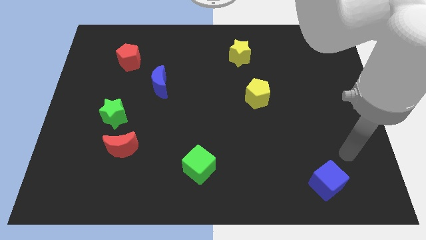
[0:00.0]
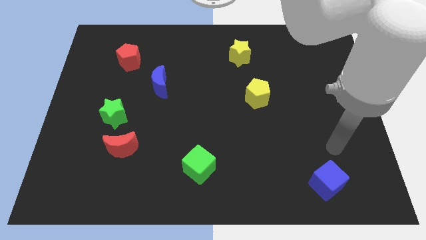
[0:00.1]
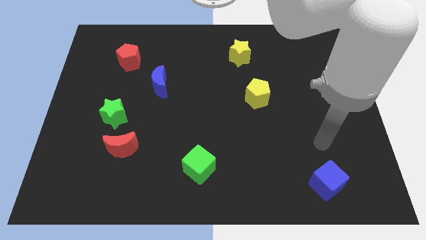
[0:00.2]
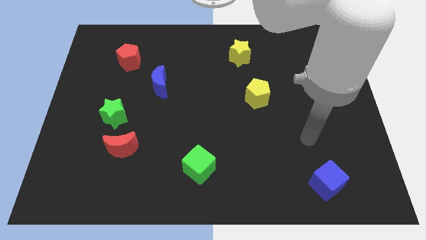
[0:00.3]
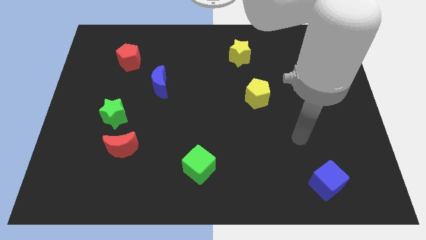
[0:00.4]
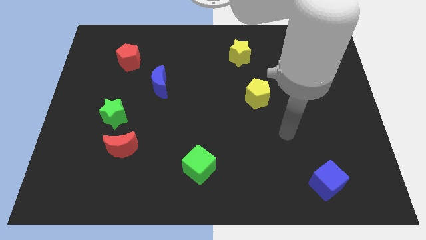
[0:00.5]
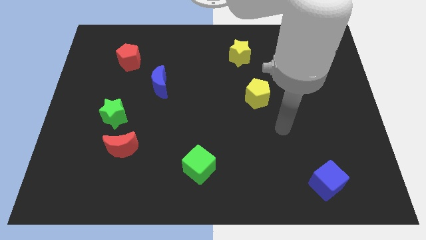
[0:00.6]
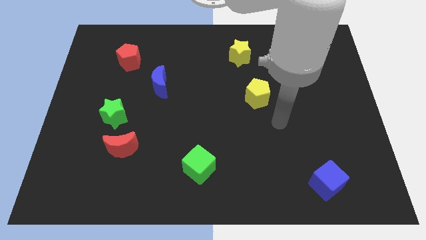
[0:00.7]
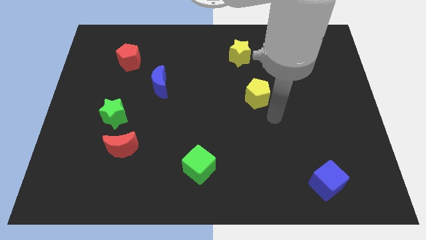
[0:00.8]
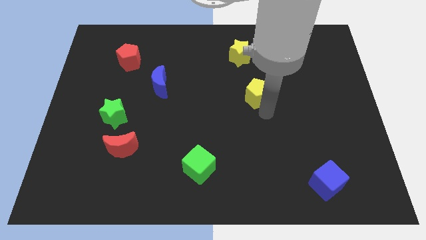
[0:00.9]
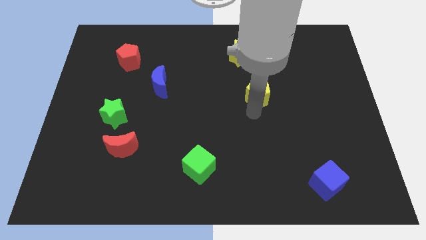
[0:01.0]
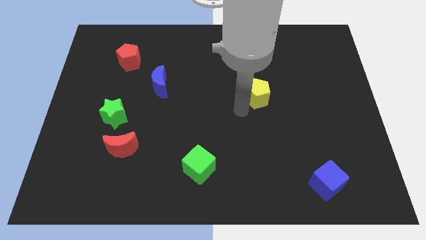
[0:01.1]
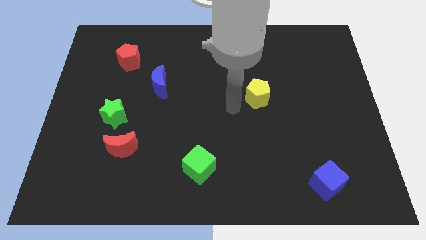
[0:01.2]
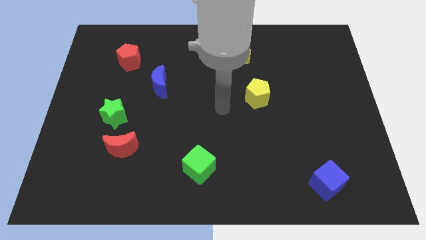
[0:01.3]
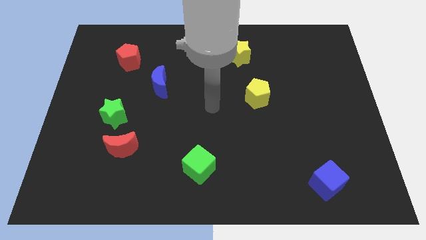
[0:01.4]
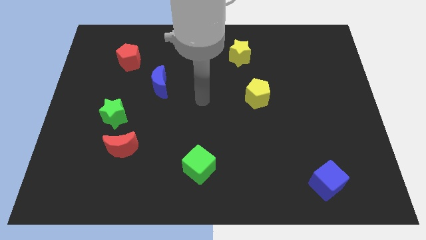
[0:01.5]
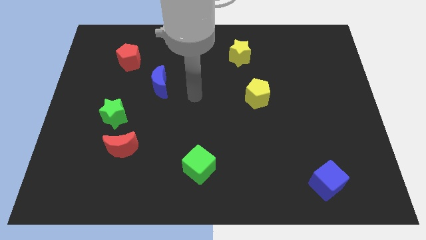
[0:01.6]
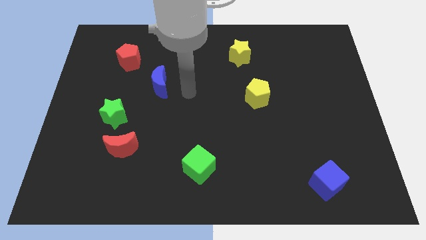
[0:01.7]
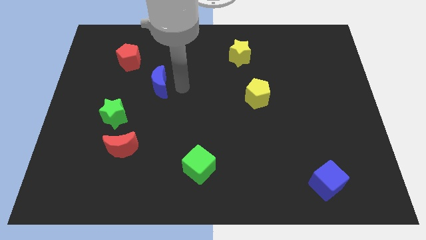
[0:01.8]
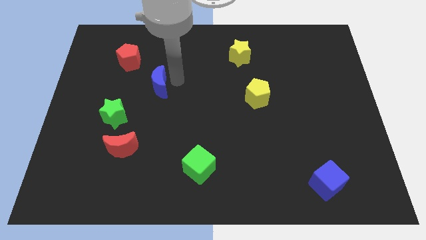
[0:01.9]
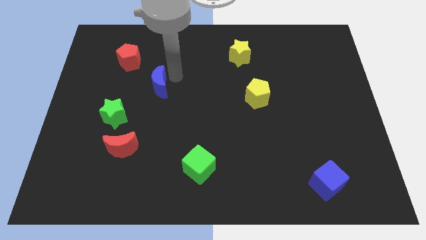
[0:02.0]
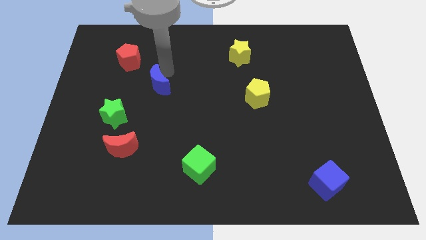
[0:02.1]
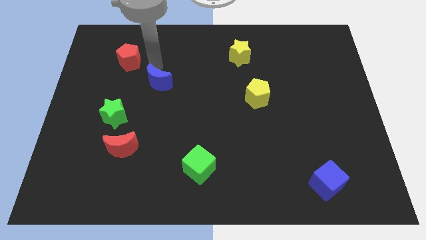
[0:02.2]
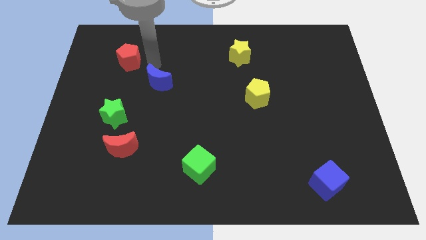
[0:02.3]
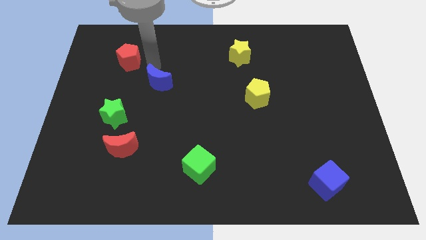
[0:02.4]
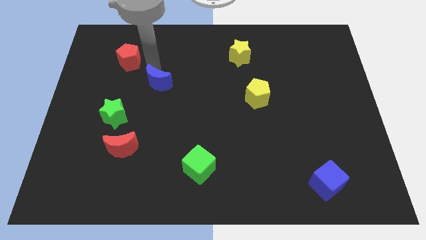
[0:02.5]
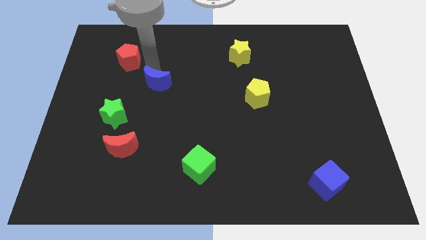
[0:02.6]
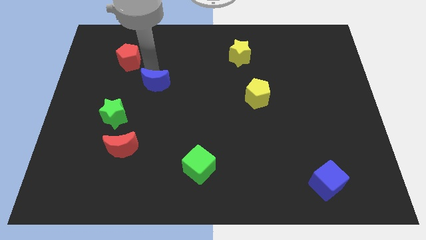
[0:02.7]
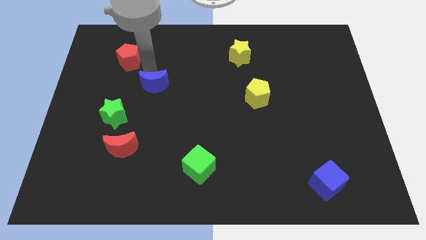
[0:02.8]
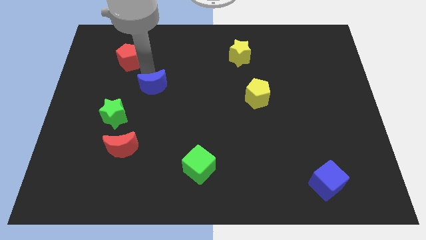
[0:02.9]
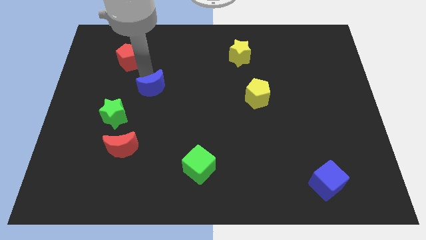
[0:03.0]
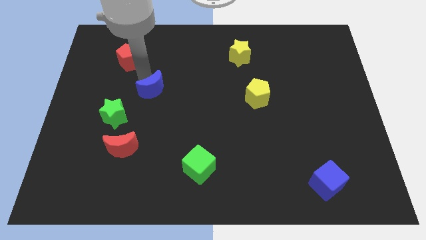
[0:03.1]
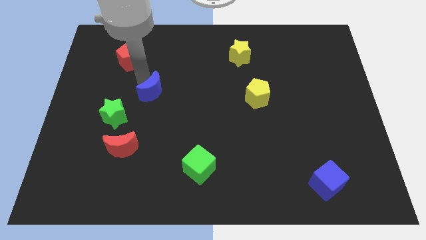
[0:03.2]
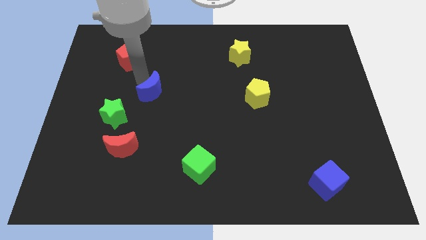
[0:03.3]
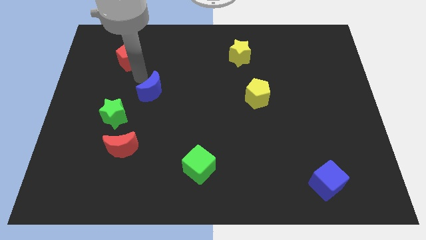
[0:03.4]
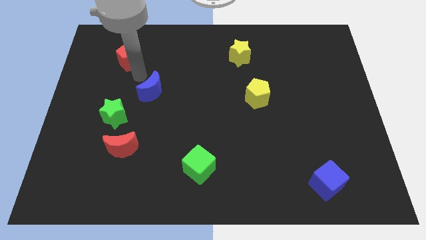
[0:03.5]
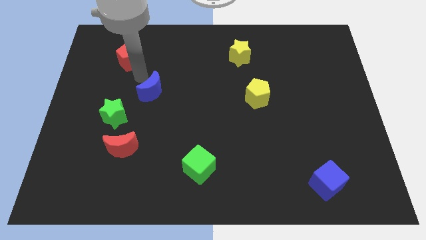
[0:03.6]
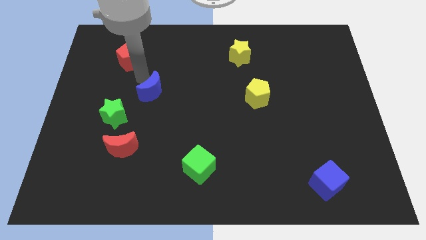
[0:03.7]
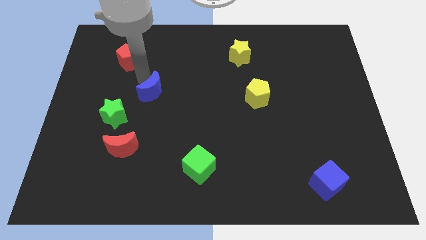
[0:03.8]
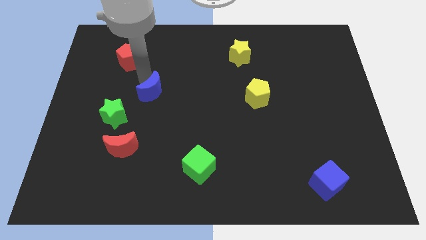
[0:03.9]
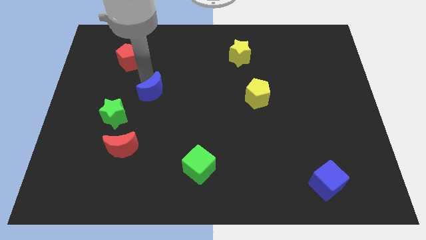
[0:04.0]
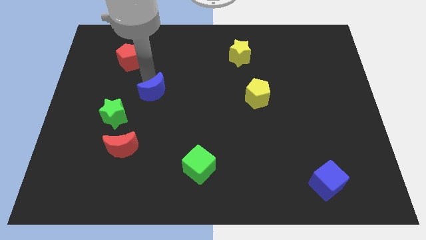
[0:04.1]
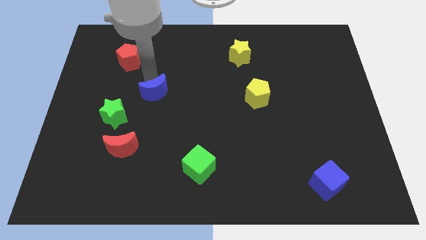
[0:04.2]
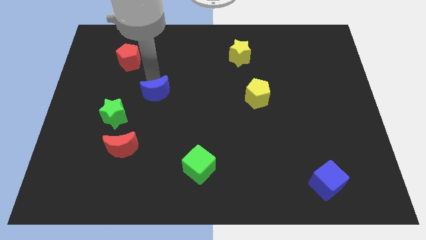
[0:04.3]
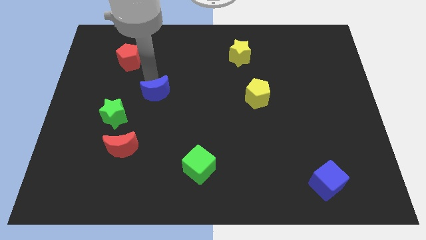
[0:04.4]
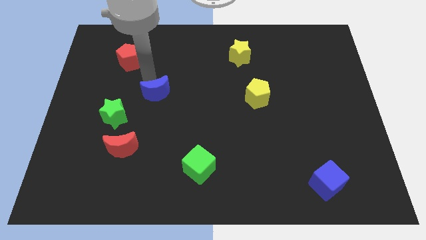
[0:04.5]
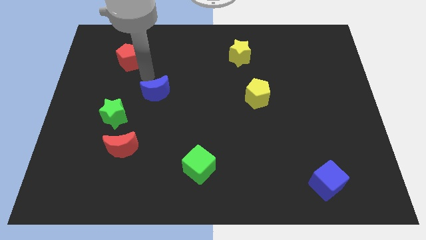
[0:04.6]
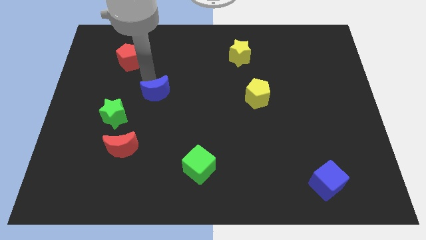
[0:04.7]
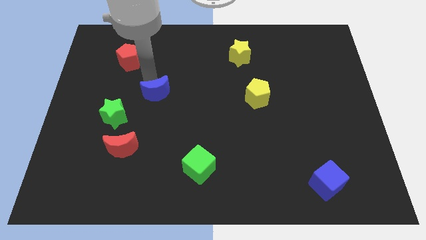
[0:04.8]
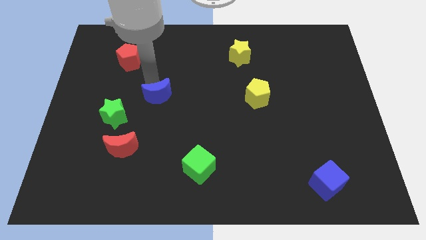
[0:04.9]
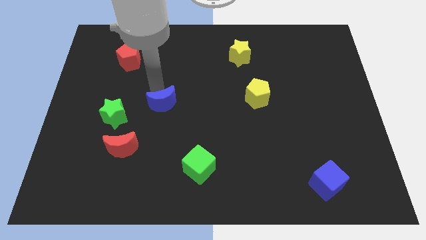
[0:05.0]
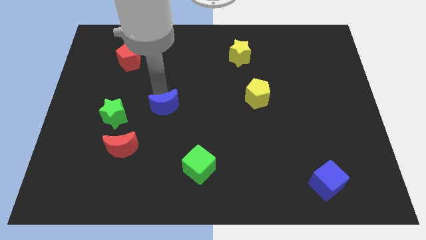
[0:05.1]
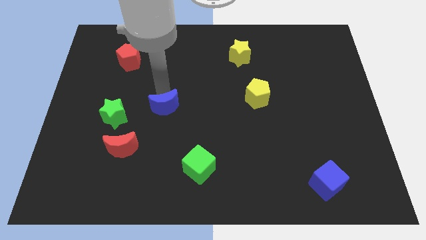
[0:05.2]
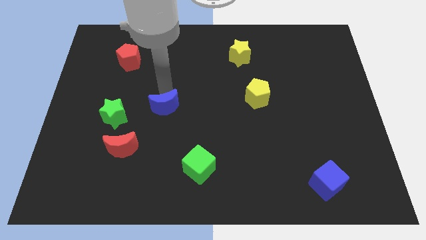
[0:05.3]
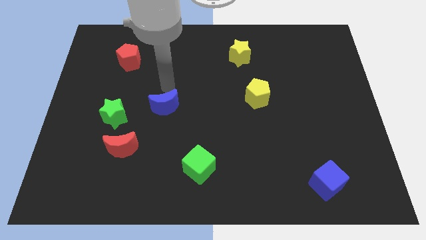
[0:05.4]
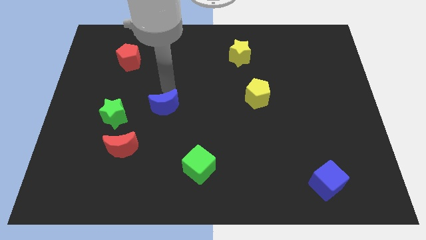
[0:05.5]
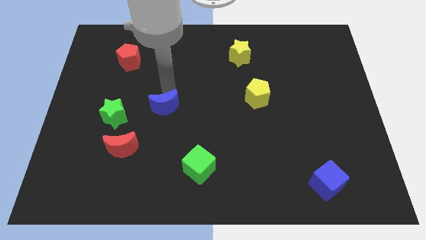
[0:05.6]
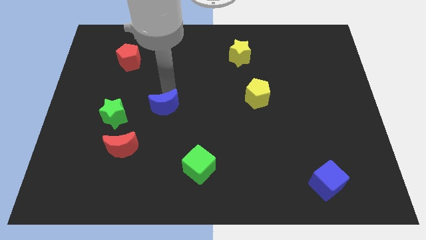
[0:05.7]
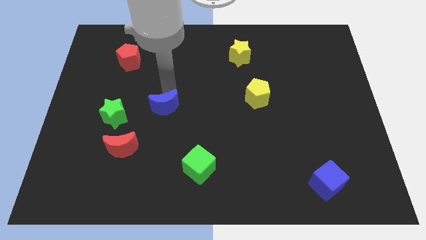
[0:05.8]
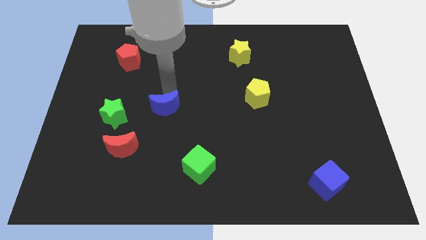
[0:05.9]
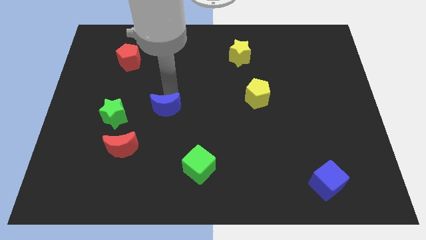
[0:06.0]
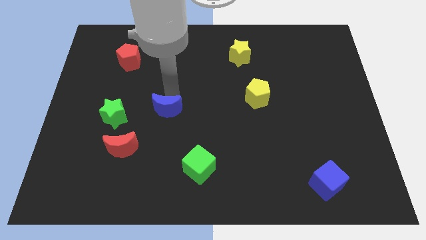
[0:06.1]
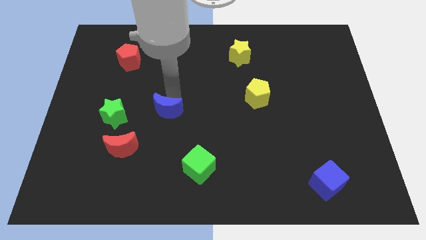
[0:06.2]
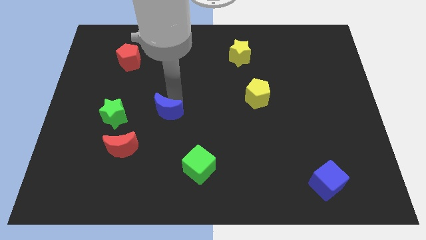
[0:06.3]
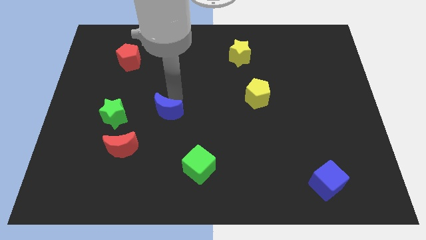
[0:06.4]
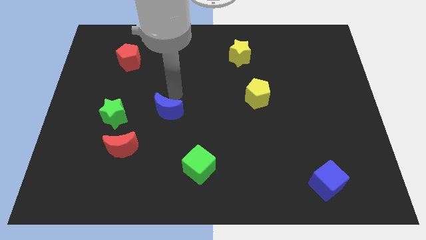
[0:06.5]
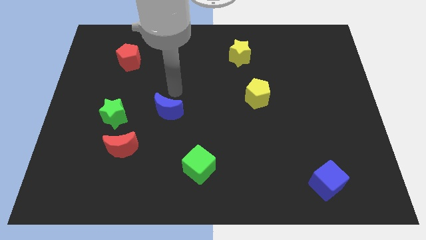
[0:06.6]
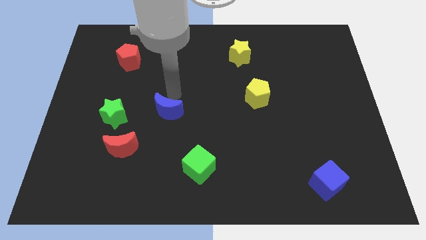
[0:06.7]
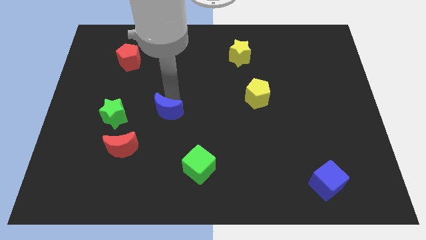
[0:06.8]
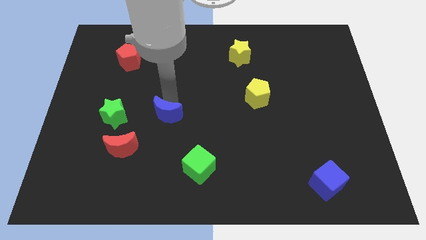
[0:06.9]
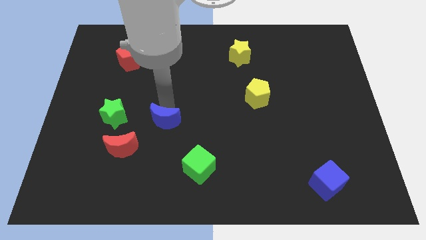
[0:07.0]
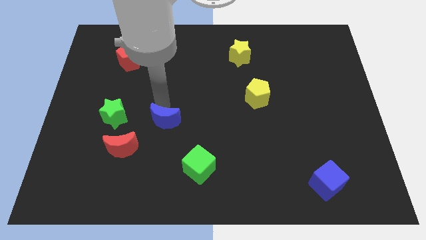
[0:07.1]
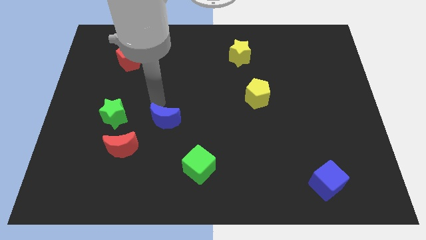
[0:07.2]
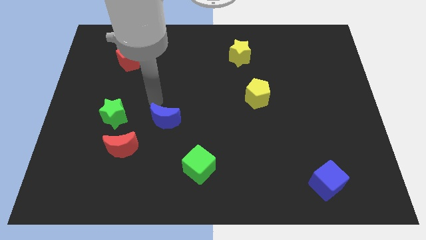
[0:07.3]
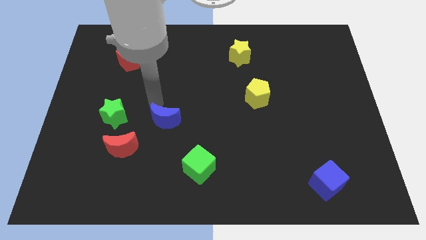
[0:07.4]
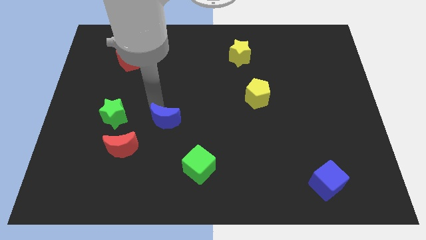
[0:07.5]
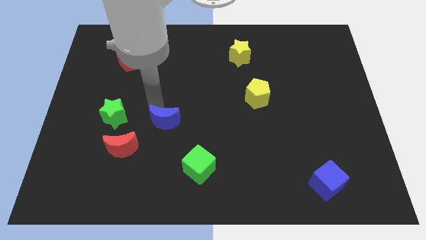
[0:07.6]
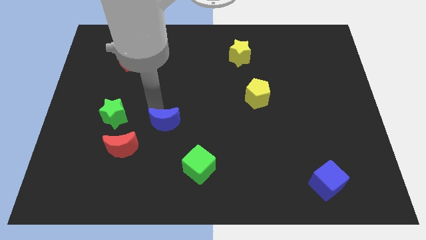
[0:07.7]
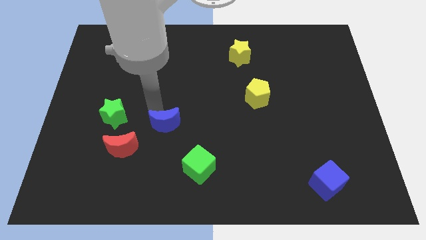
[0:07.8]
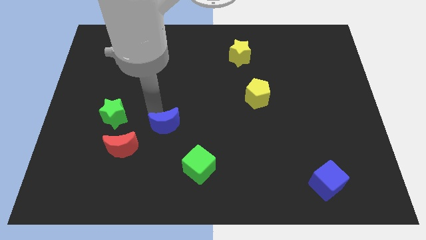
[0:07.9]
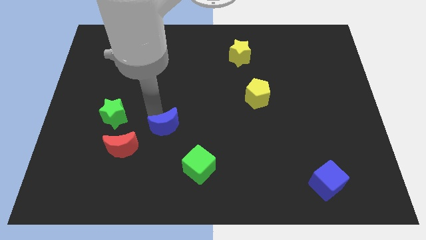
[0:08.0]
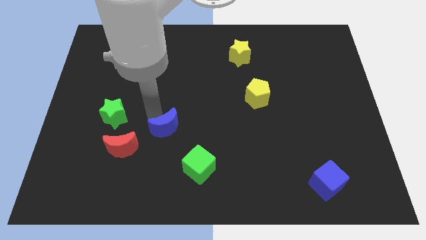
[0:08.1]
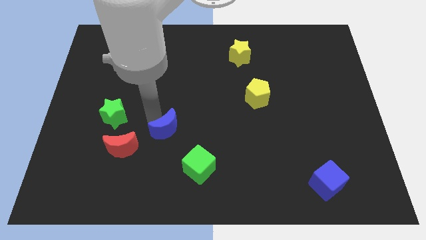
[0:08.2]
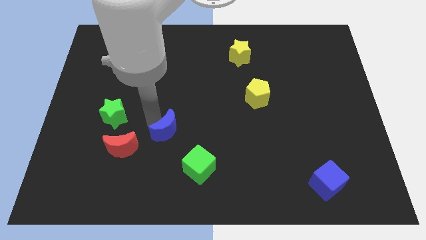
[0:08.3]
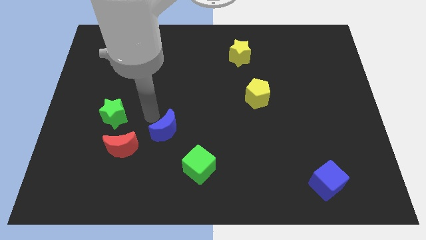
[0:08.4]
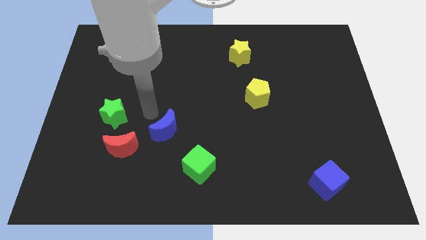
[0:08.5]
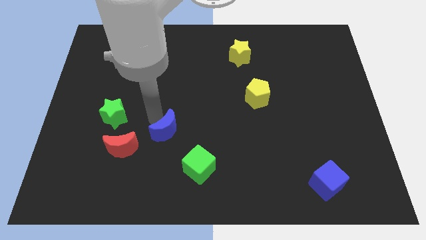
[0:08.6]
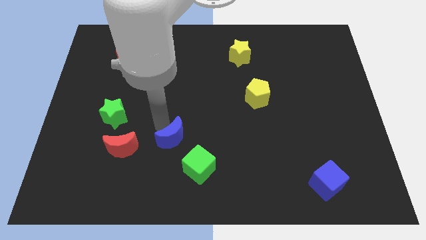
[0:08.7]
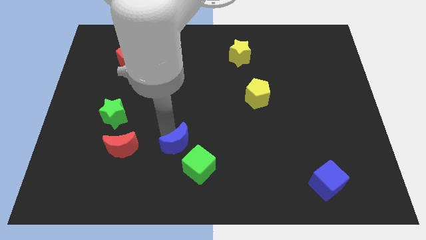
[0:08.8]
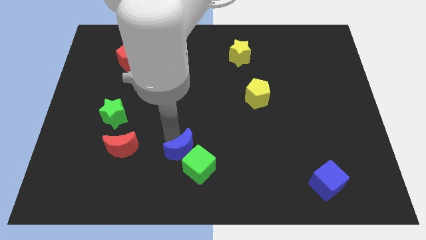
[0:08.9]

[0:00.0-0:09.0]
move the blue moon to the green cube
